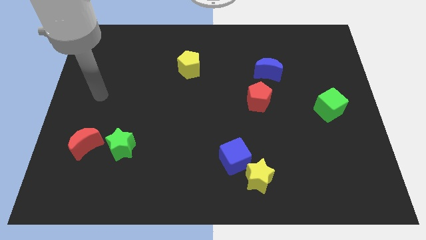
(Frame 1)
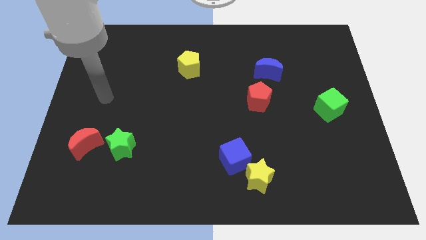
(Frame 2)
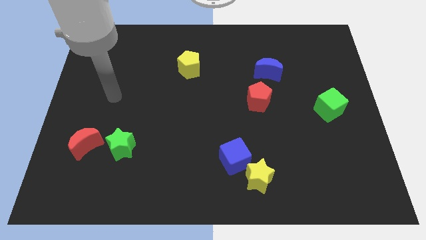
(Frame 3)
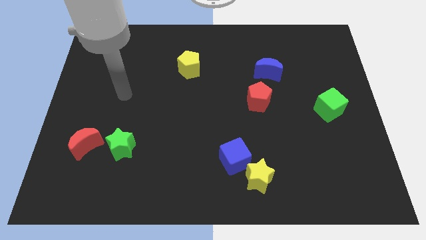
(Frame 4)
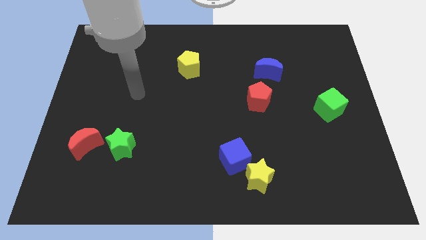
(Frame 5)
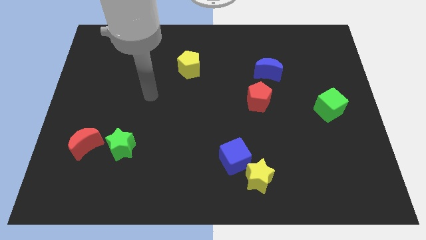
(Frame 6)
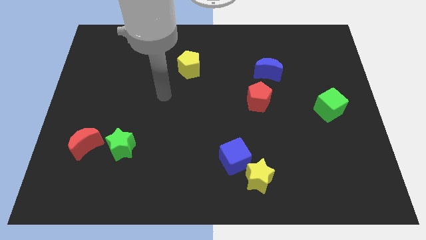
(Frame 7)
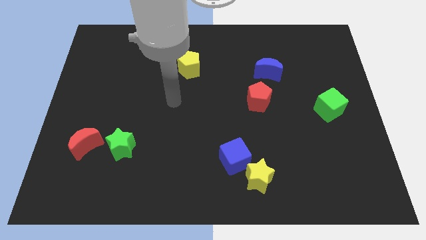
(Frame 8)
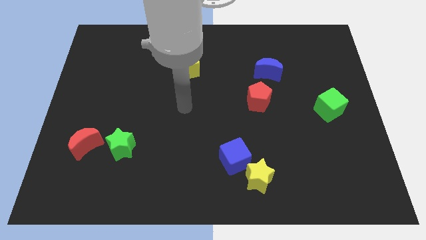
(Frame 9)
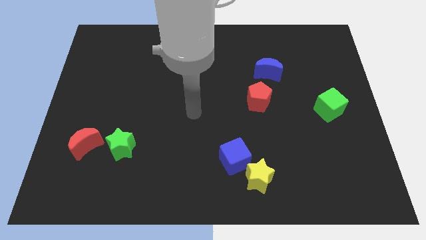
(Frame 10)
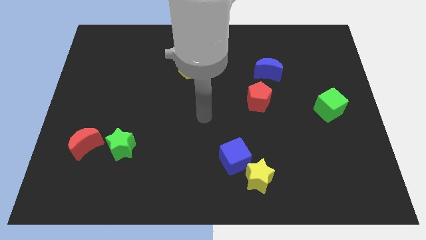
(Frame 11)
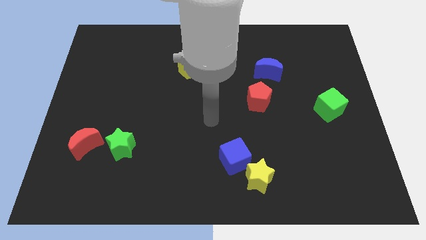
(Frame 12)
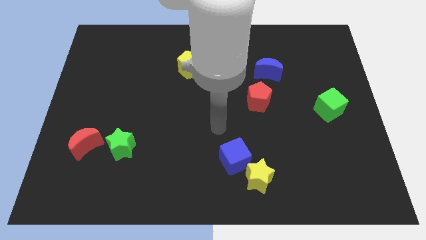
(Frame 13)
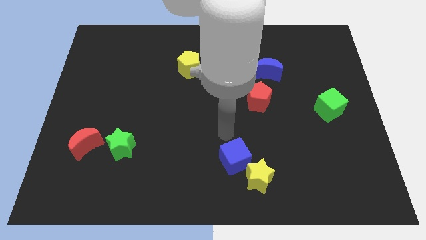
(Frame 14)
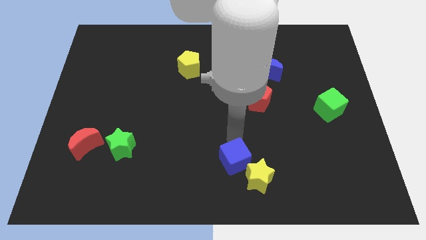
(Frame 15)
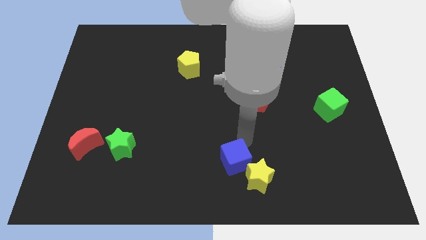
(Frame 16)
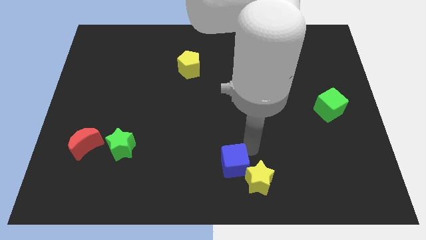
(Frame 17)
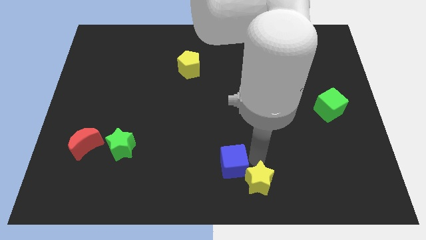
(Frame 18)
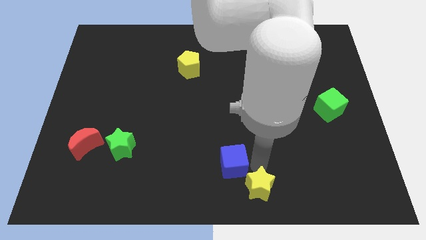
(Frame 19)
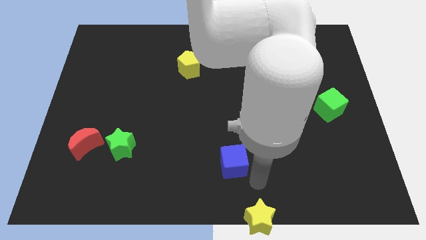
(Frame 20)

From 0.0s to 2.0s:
move the blue cube away from the yellow star

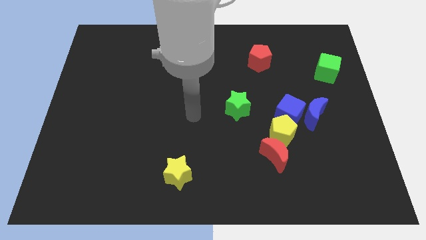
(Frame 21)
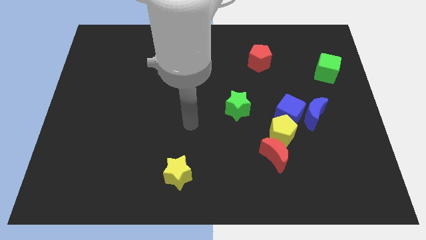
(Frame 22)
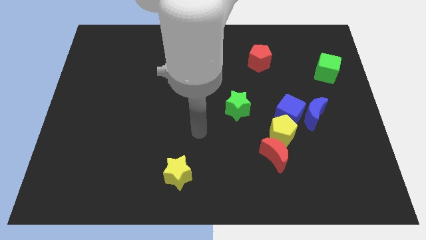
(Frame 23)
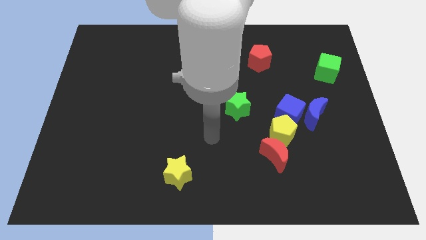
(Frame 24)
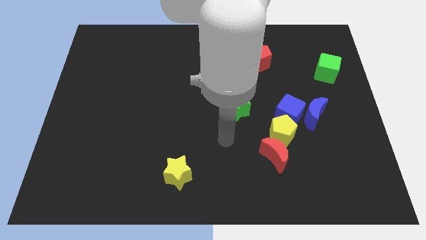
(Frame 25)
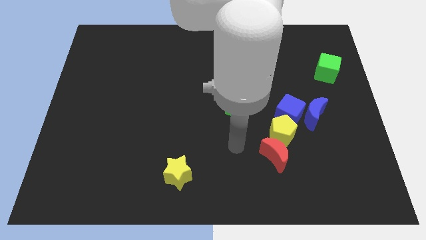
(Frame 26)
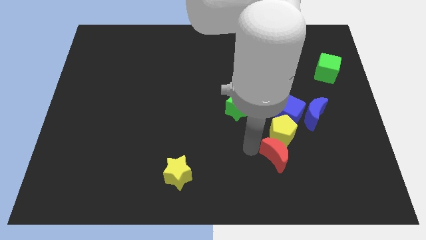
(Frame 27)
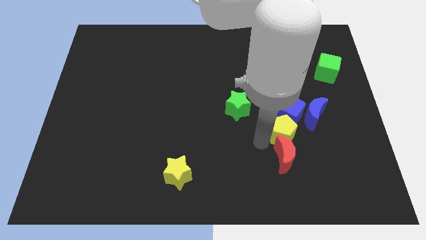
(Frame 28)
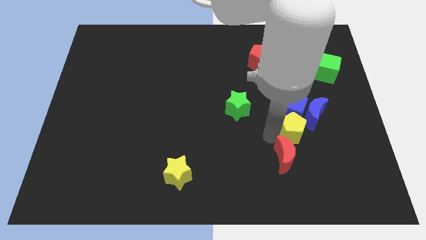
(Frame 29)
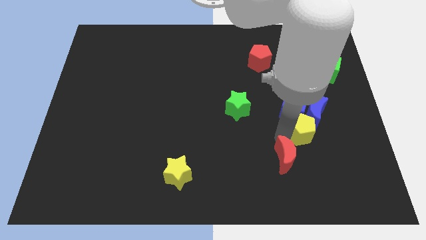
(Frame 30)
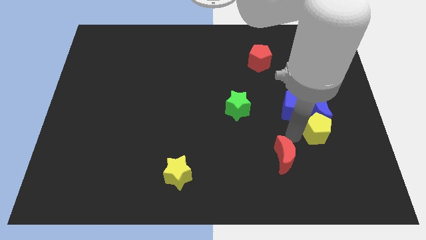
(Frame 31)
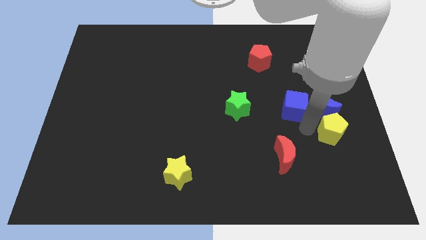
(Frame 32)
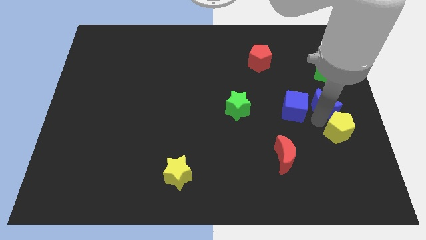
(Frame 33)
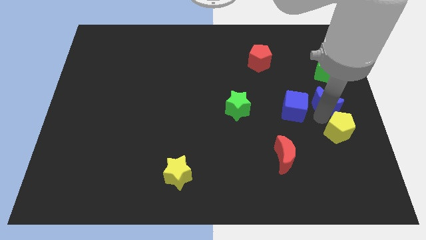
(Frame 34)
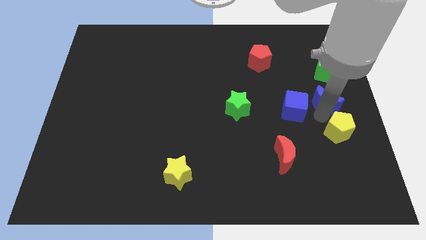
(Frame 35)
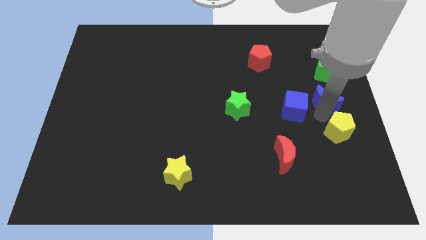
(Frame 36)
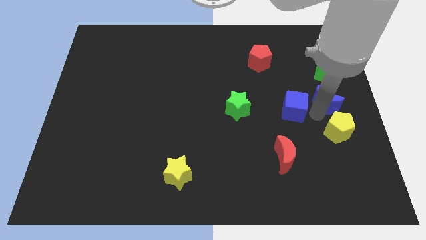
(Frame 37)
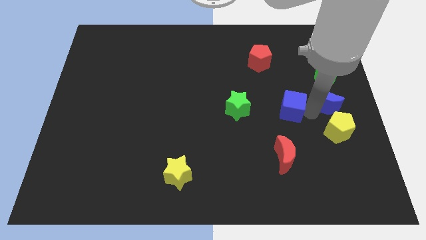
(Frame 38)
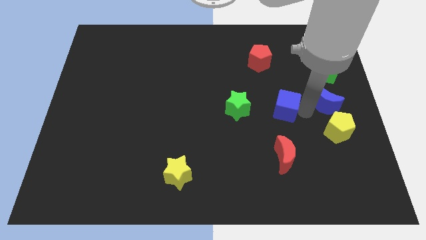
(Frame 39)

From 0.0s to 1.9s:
pull the blue cube apart from the blue moon and yellow pentagon

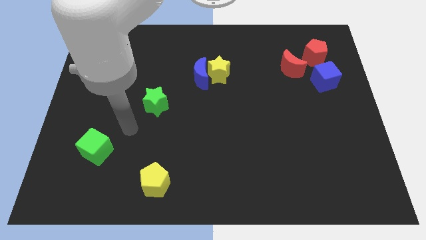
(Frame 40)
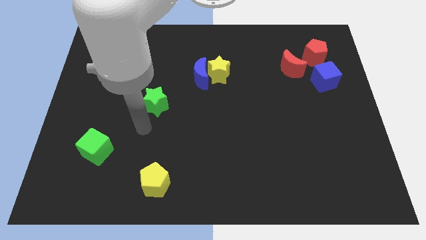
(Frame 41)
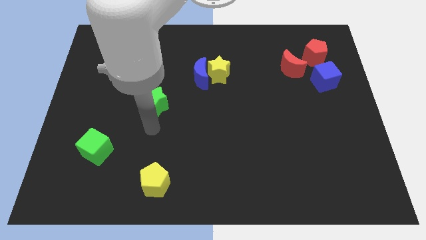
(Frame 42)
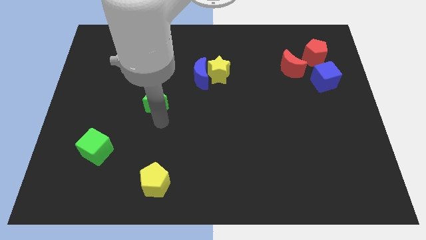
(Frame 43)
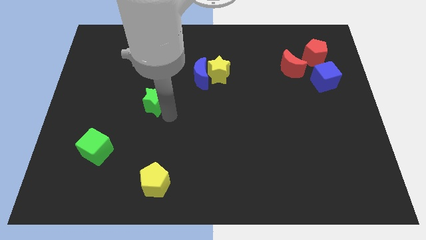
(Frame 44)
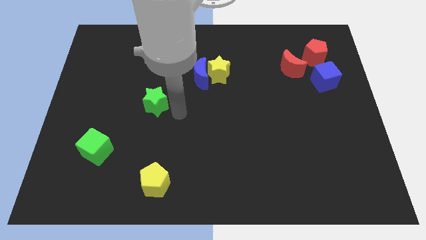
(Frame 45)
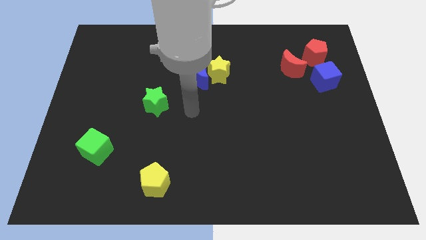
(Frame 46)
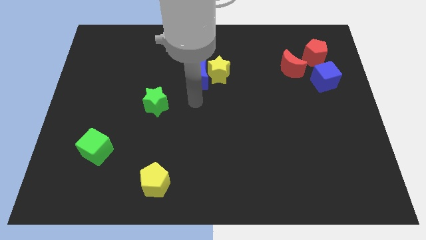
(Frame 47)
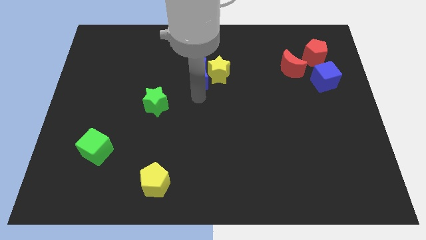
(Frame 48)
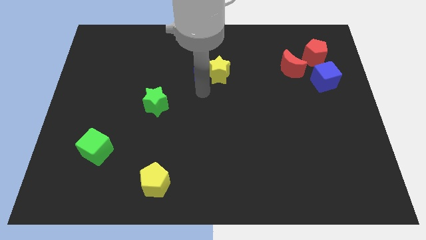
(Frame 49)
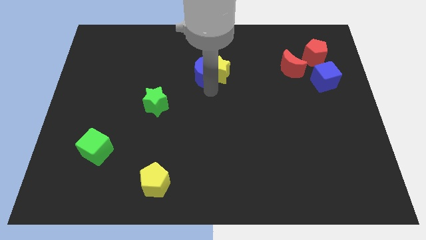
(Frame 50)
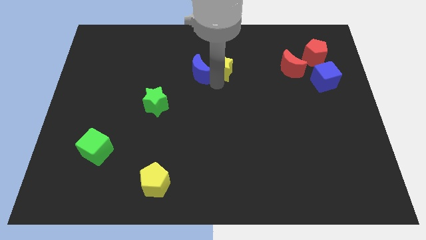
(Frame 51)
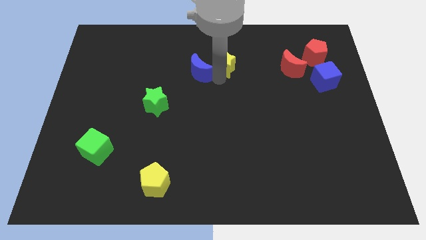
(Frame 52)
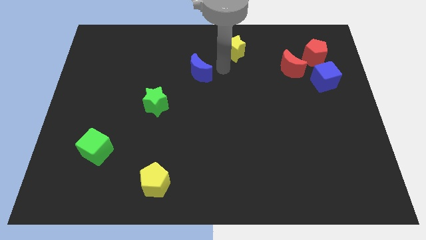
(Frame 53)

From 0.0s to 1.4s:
move the blue moon away from the yellow star

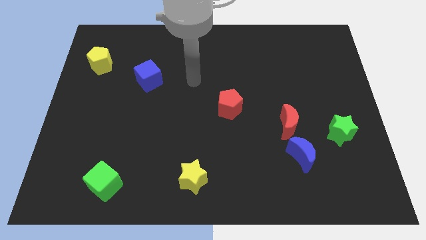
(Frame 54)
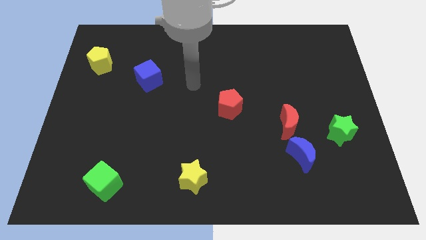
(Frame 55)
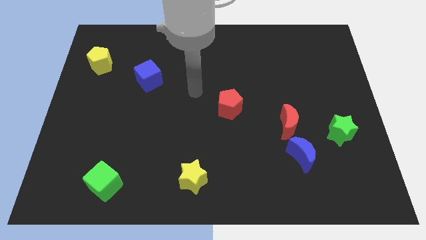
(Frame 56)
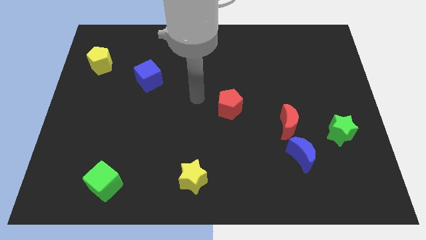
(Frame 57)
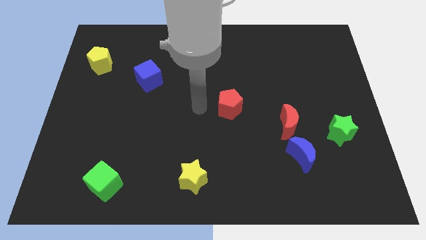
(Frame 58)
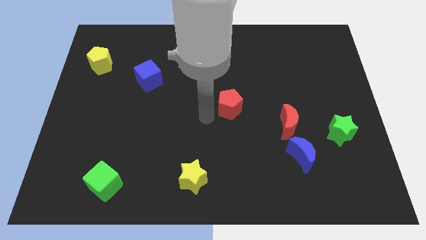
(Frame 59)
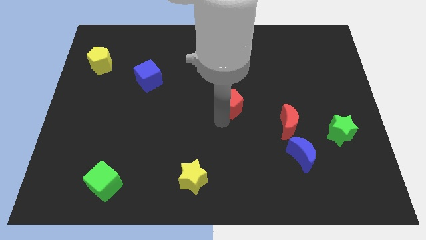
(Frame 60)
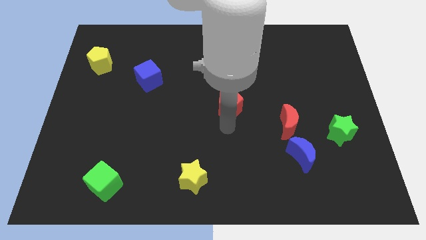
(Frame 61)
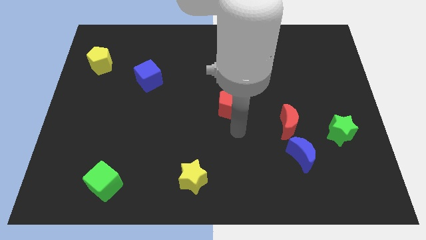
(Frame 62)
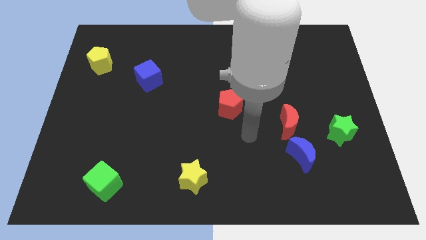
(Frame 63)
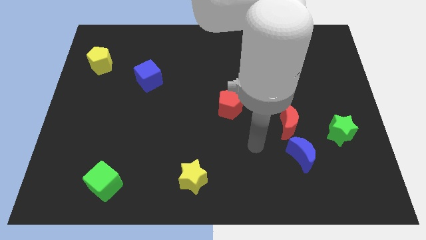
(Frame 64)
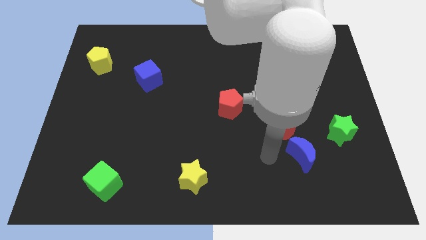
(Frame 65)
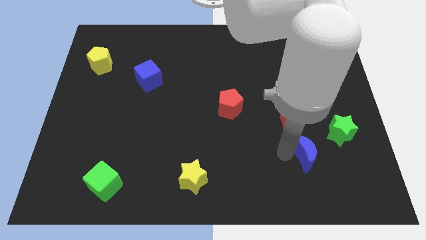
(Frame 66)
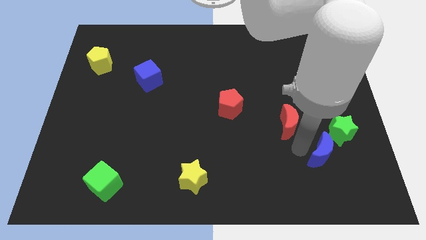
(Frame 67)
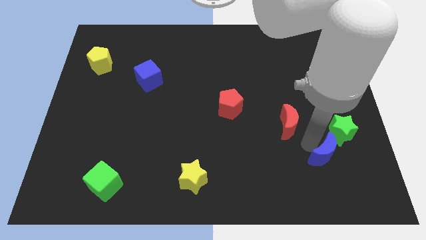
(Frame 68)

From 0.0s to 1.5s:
move the red moon away from the blue moon

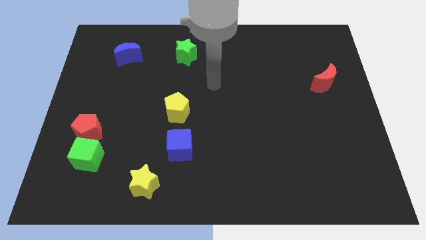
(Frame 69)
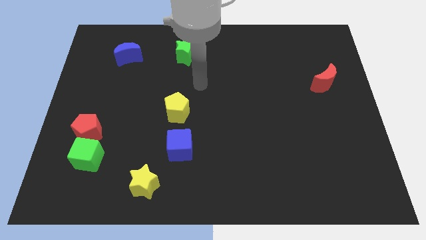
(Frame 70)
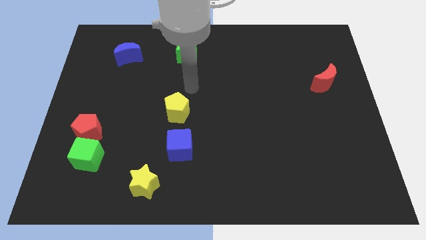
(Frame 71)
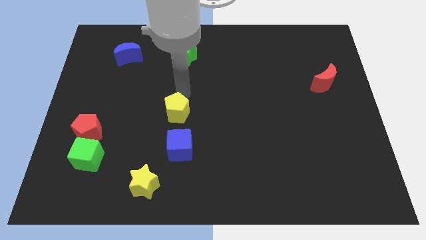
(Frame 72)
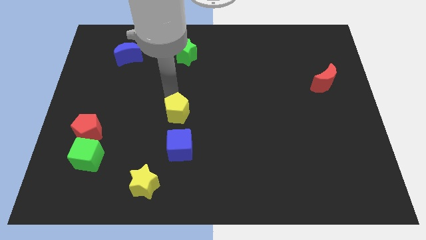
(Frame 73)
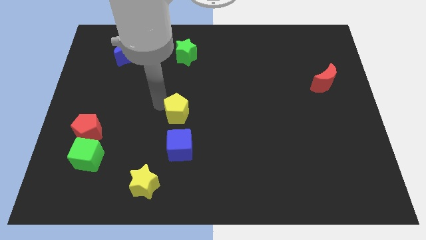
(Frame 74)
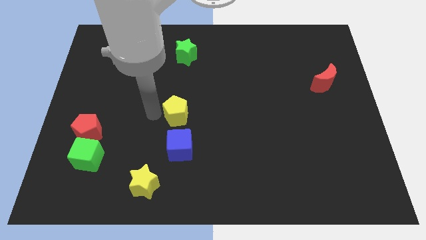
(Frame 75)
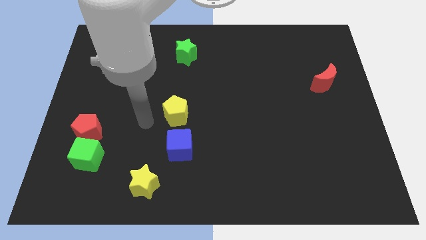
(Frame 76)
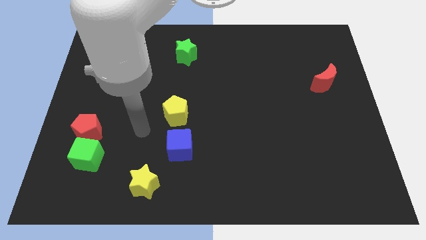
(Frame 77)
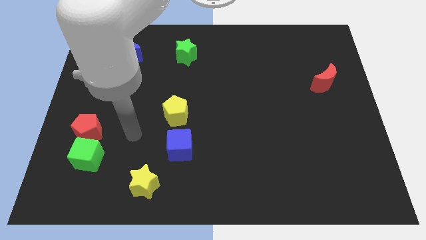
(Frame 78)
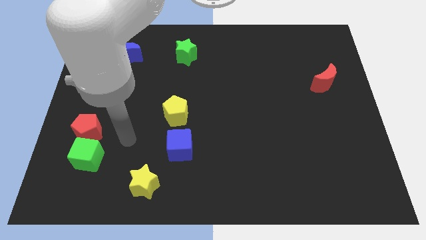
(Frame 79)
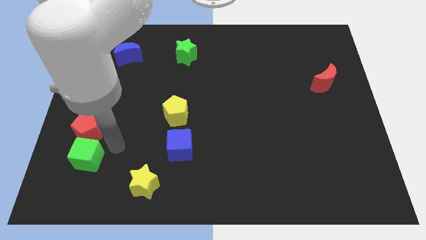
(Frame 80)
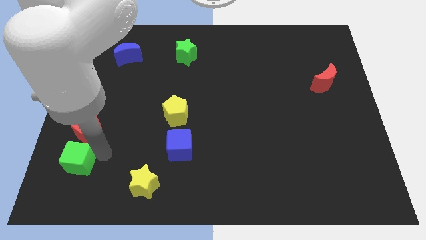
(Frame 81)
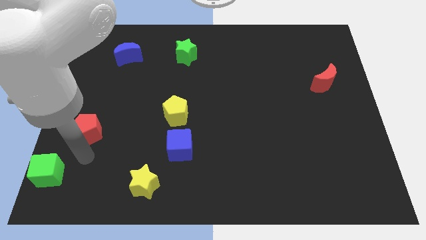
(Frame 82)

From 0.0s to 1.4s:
separate the red pentagon from the green cube

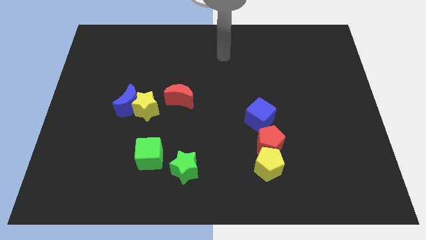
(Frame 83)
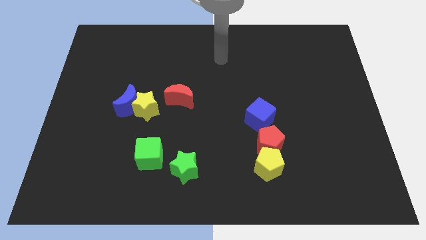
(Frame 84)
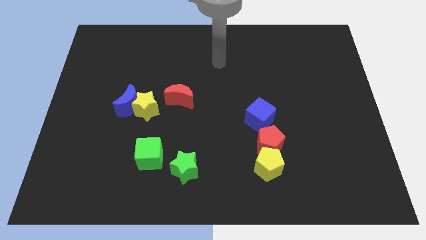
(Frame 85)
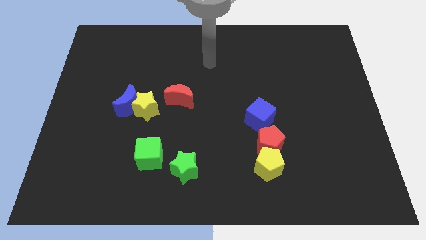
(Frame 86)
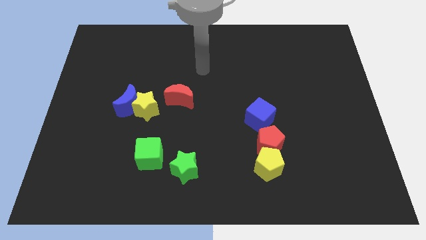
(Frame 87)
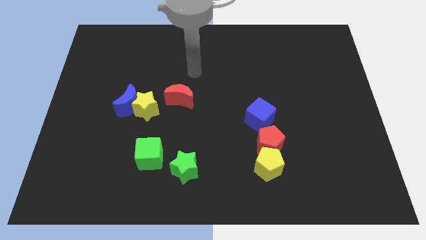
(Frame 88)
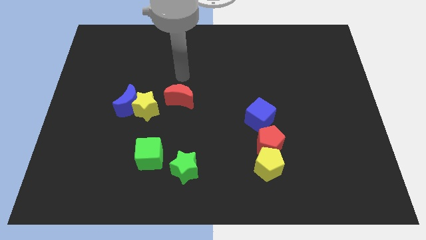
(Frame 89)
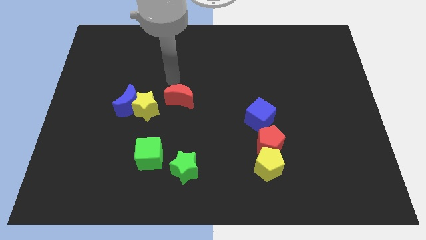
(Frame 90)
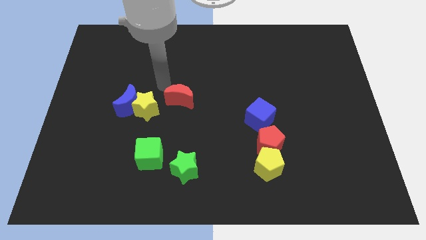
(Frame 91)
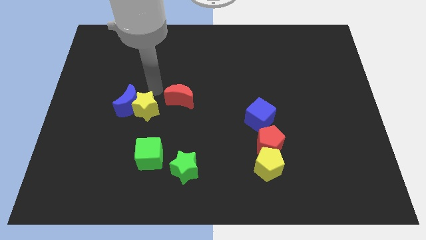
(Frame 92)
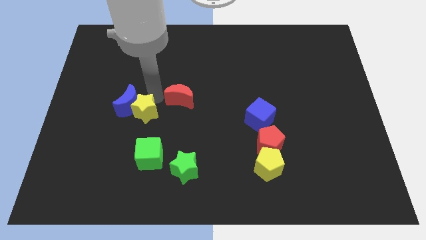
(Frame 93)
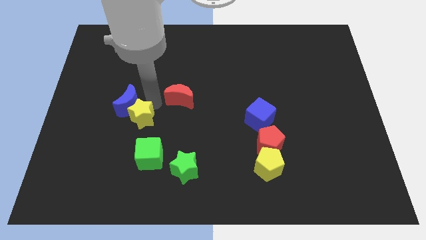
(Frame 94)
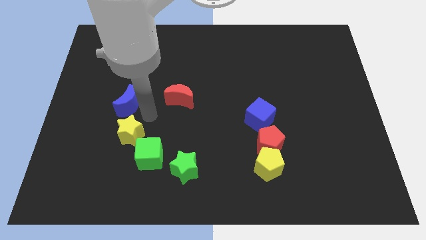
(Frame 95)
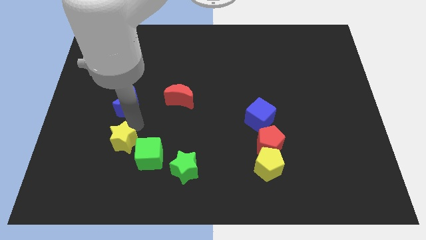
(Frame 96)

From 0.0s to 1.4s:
pull the blue moon apart from the yellow star
